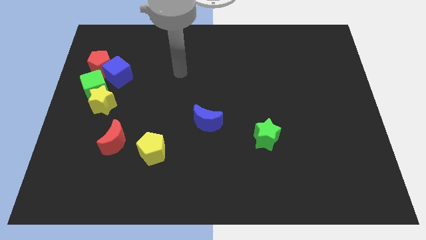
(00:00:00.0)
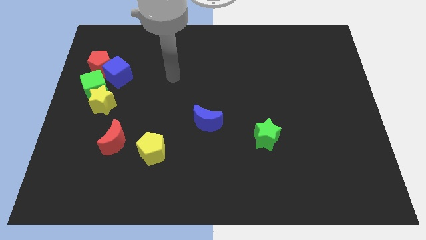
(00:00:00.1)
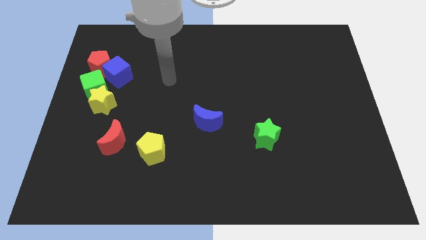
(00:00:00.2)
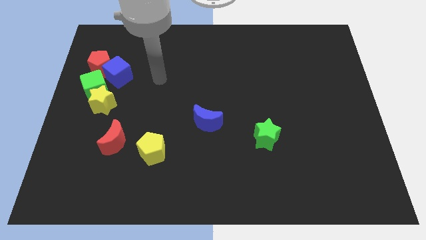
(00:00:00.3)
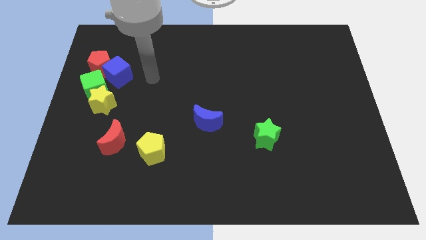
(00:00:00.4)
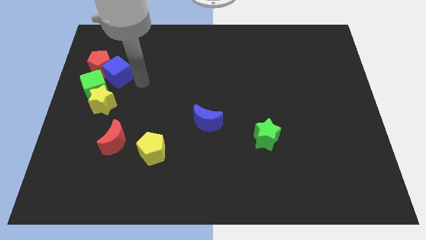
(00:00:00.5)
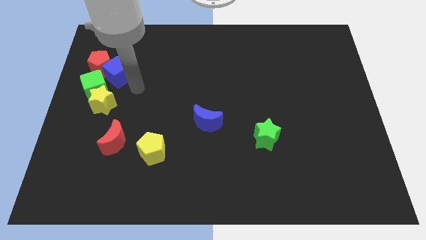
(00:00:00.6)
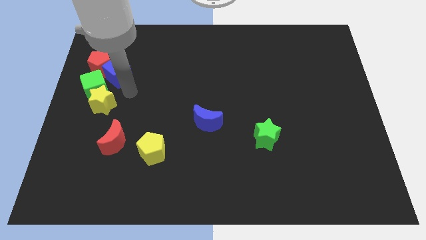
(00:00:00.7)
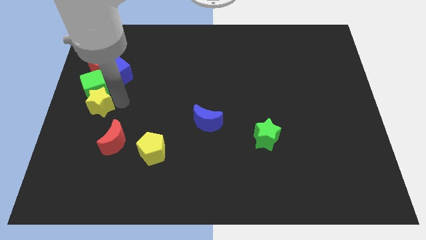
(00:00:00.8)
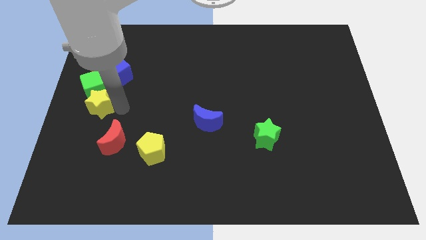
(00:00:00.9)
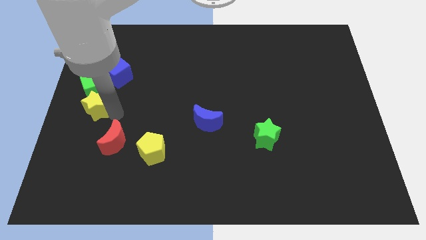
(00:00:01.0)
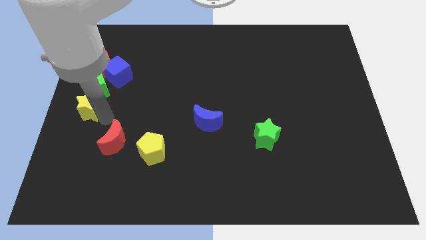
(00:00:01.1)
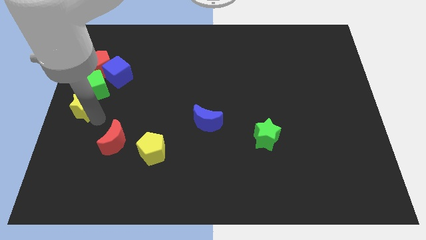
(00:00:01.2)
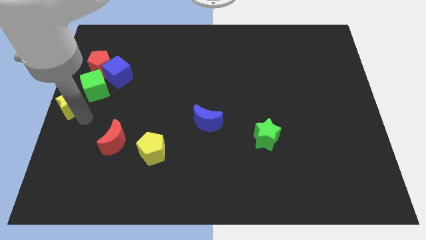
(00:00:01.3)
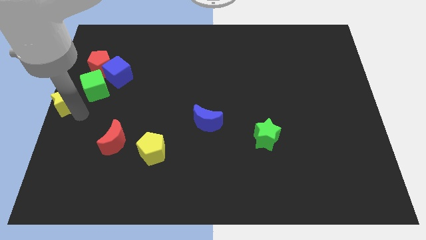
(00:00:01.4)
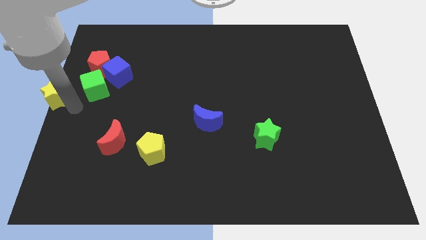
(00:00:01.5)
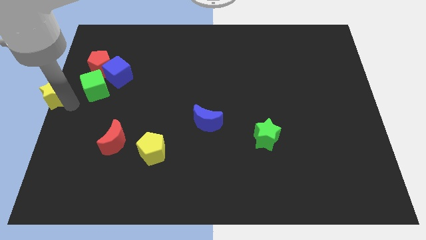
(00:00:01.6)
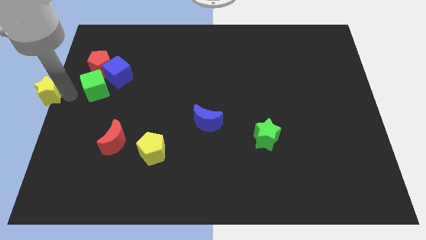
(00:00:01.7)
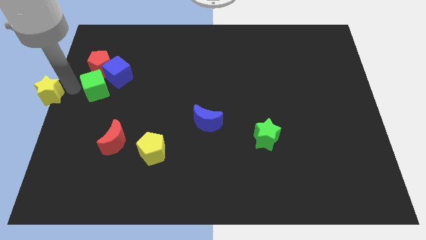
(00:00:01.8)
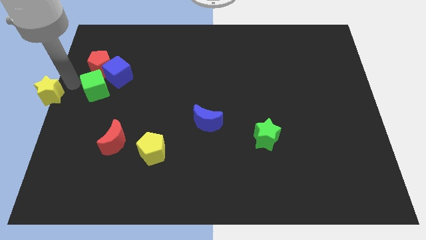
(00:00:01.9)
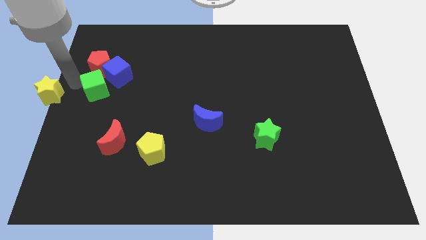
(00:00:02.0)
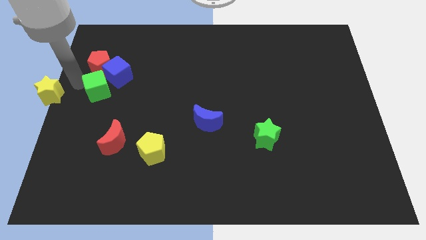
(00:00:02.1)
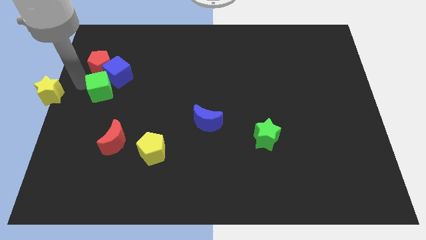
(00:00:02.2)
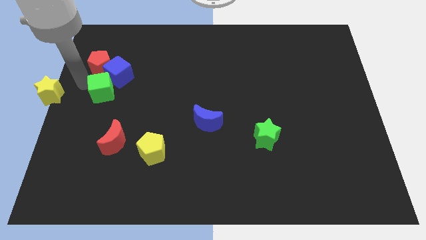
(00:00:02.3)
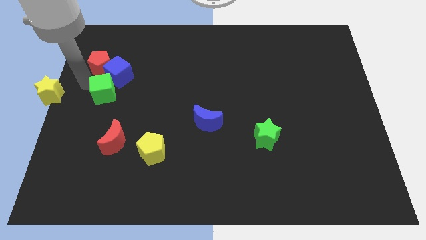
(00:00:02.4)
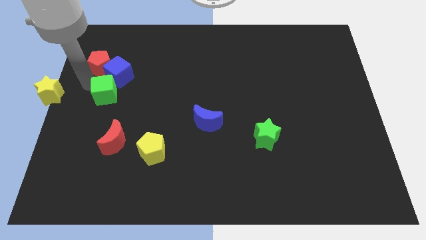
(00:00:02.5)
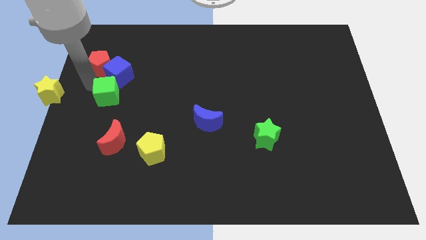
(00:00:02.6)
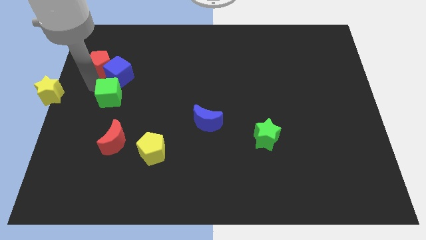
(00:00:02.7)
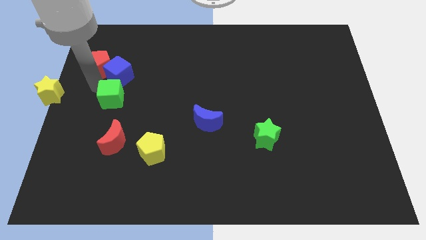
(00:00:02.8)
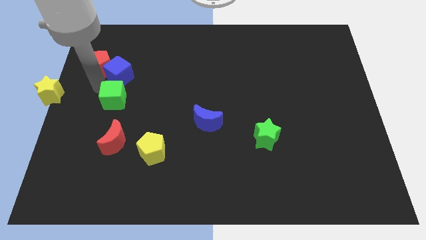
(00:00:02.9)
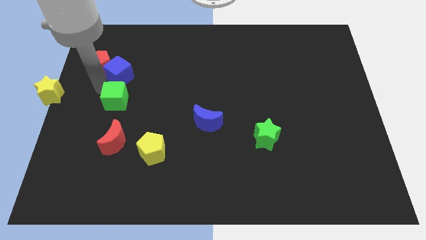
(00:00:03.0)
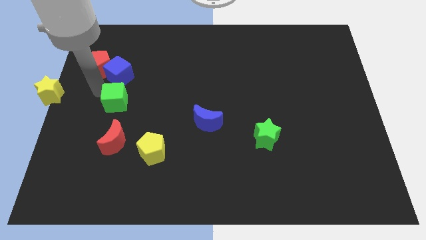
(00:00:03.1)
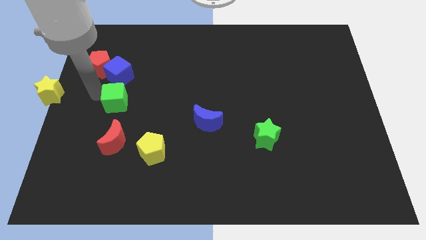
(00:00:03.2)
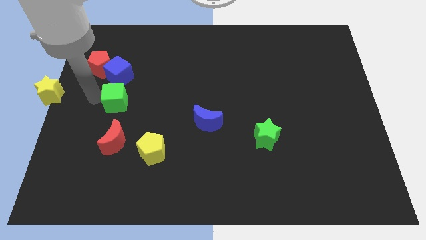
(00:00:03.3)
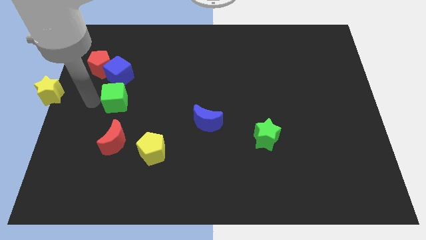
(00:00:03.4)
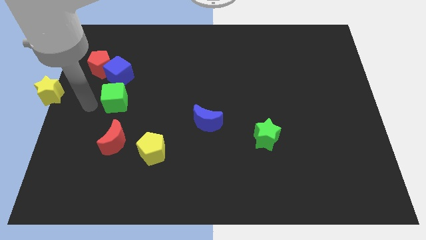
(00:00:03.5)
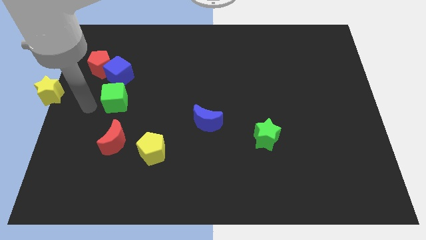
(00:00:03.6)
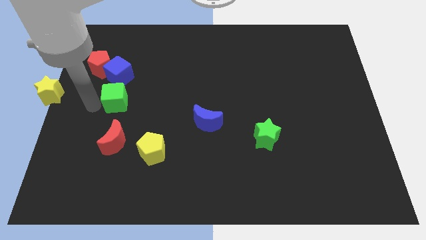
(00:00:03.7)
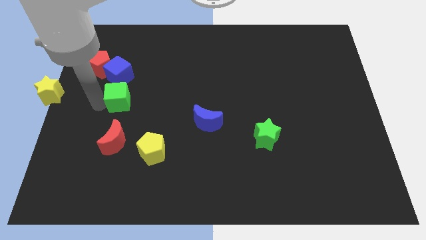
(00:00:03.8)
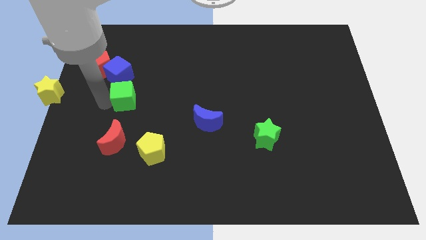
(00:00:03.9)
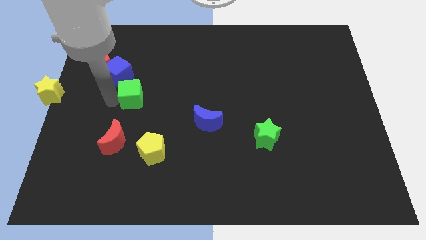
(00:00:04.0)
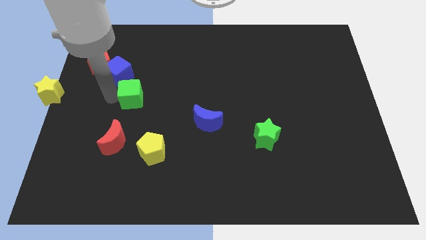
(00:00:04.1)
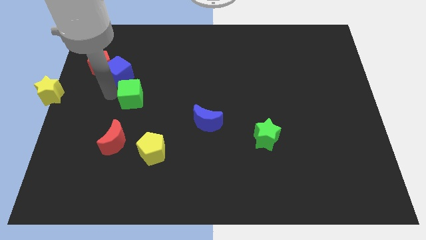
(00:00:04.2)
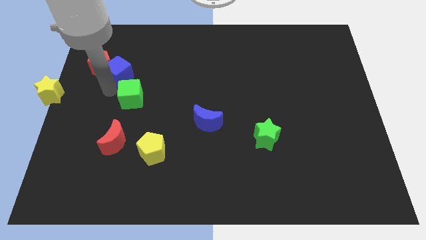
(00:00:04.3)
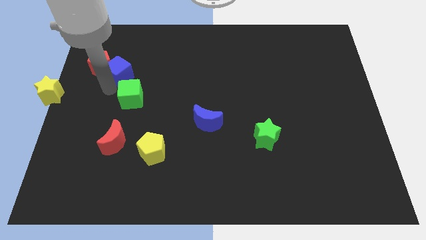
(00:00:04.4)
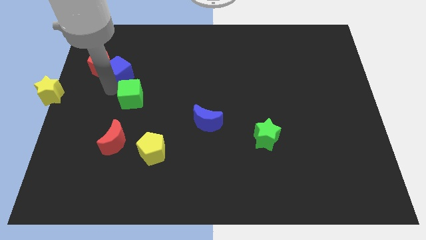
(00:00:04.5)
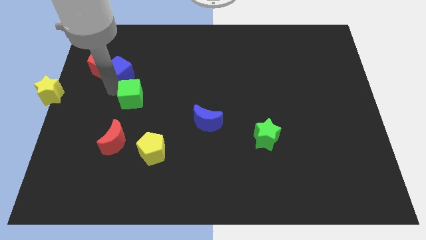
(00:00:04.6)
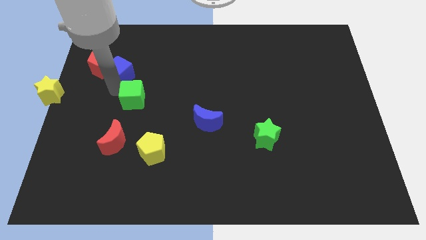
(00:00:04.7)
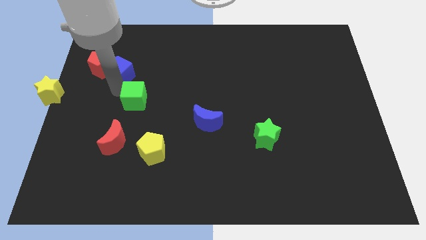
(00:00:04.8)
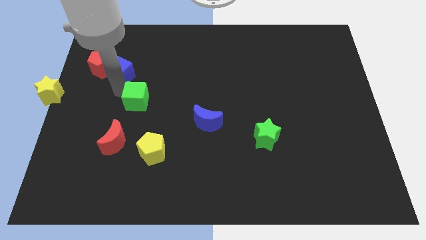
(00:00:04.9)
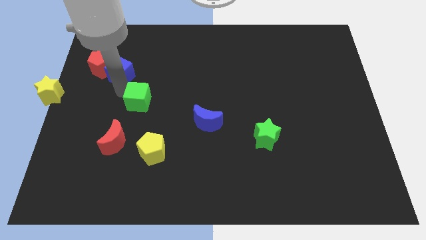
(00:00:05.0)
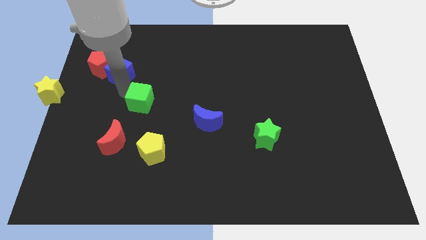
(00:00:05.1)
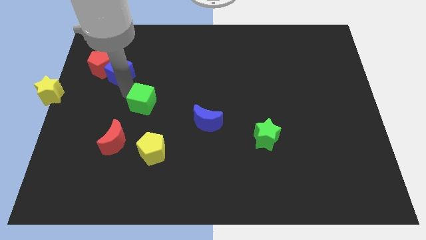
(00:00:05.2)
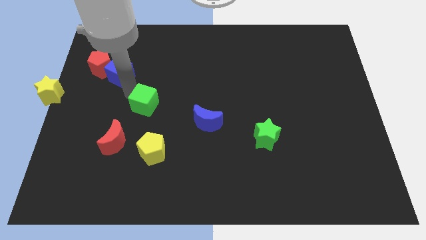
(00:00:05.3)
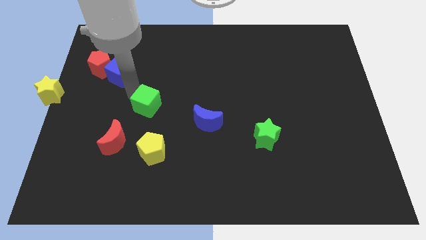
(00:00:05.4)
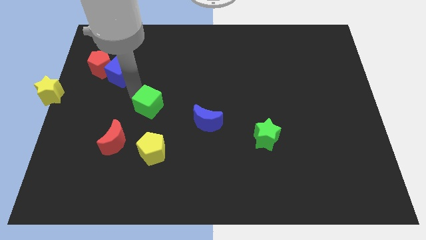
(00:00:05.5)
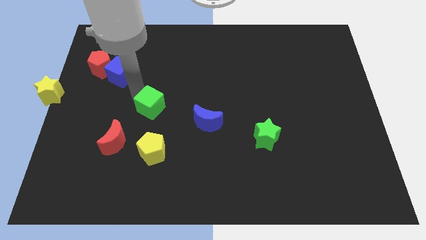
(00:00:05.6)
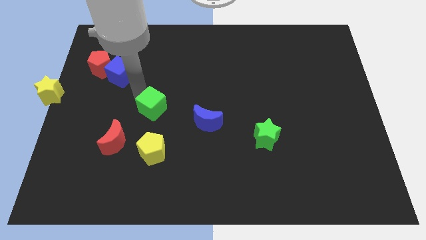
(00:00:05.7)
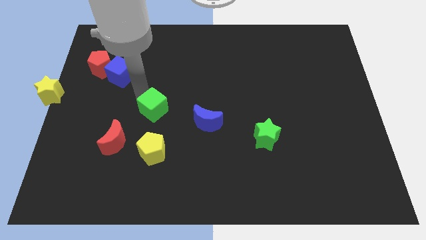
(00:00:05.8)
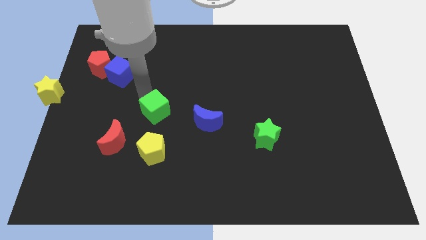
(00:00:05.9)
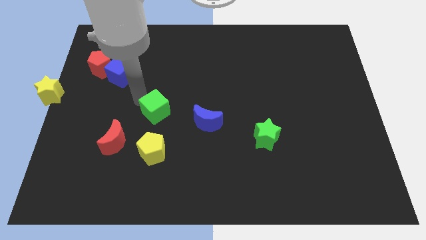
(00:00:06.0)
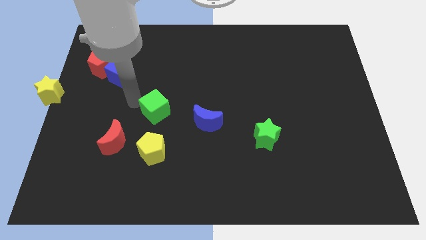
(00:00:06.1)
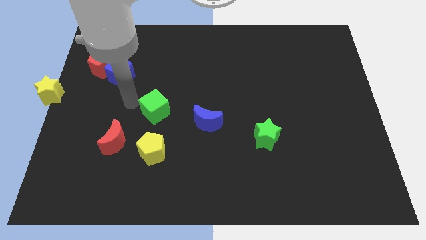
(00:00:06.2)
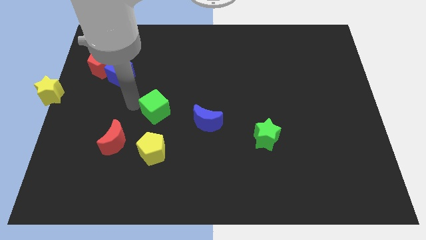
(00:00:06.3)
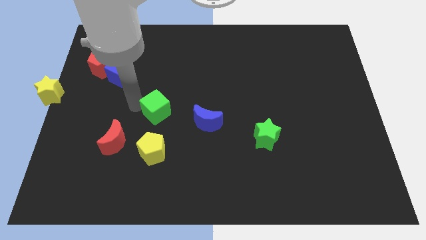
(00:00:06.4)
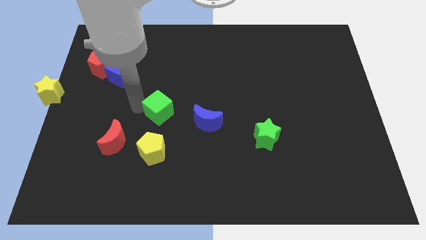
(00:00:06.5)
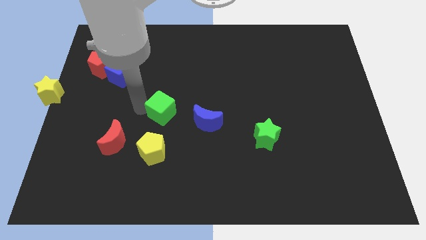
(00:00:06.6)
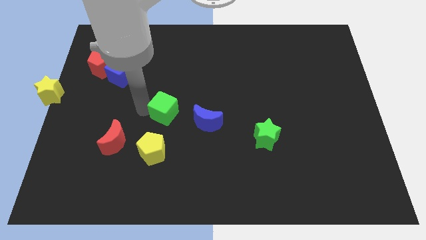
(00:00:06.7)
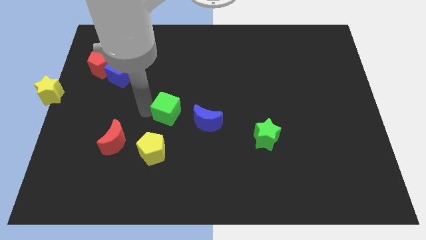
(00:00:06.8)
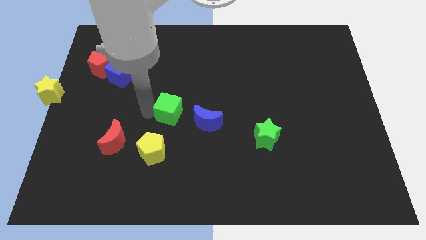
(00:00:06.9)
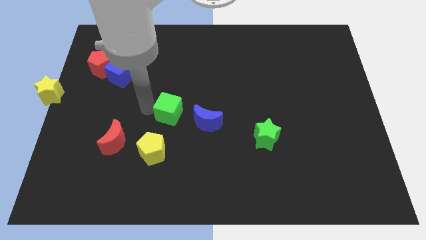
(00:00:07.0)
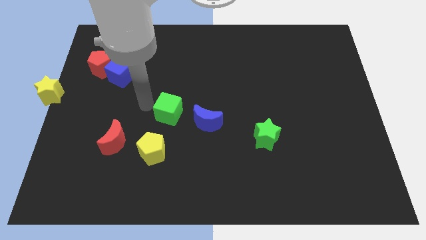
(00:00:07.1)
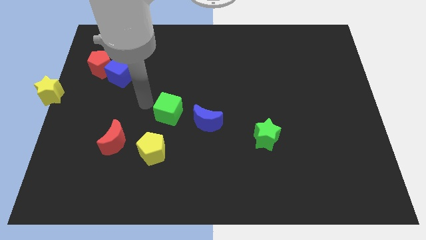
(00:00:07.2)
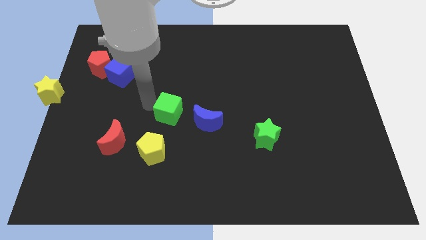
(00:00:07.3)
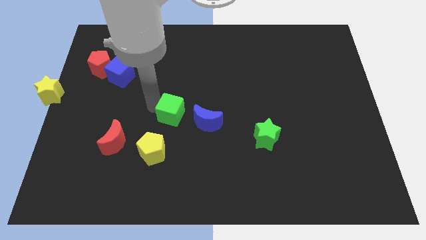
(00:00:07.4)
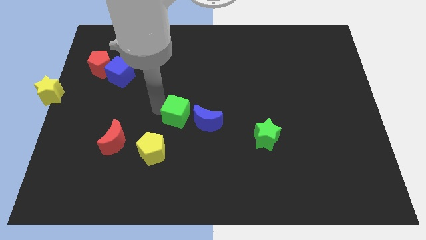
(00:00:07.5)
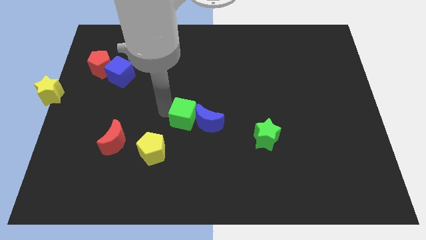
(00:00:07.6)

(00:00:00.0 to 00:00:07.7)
put the green cube close to the blue moon
